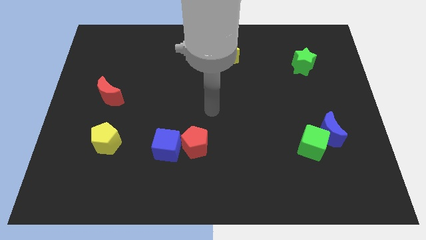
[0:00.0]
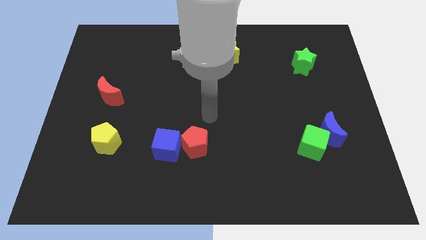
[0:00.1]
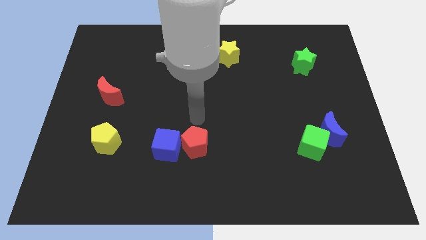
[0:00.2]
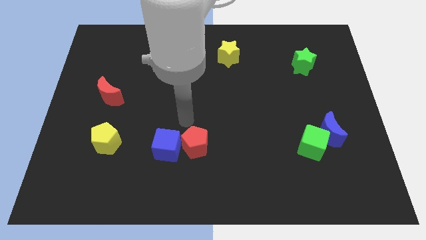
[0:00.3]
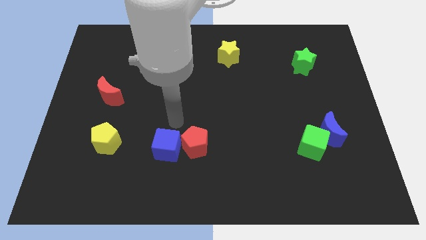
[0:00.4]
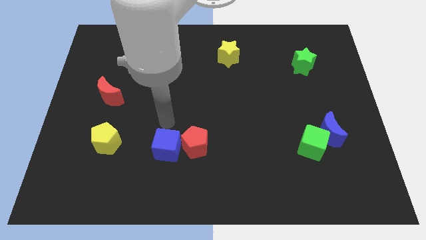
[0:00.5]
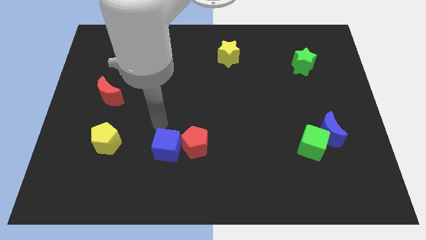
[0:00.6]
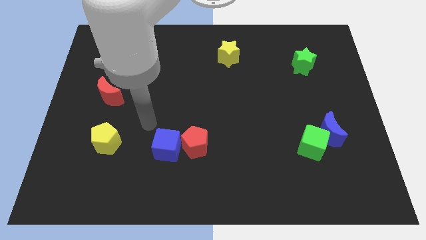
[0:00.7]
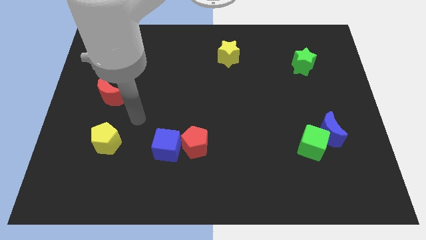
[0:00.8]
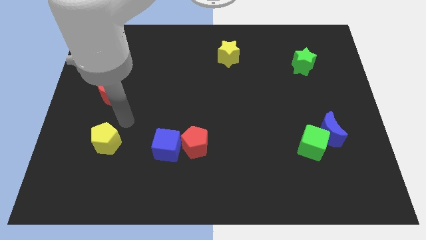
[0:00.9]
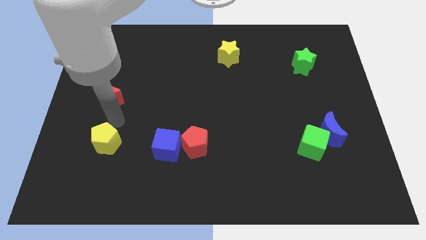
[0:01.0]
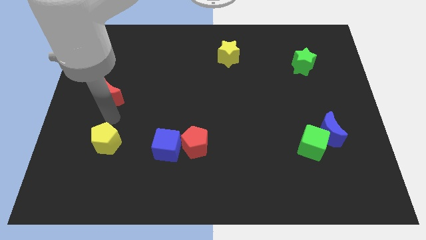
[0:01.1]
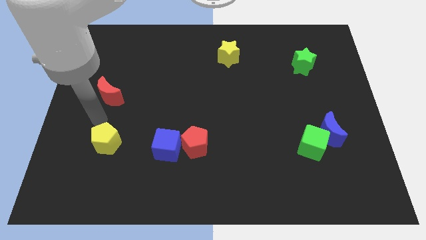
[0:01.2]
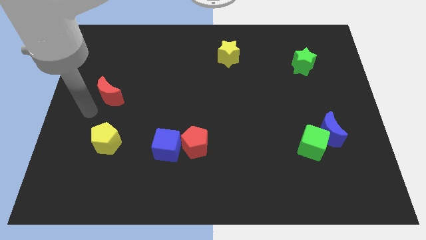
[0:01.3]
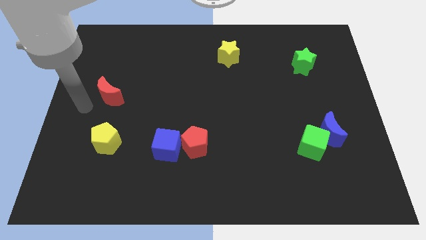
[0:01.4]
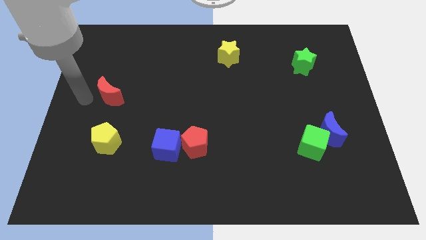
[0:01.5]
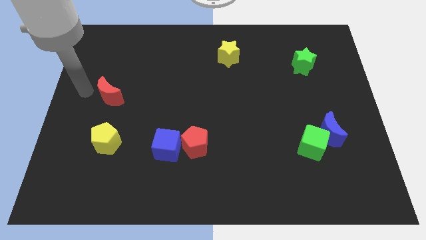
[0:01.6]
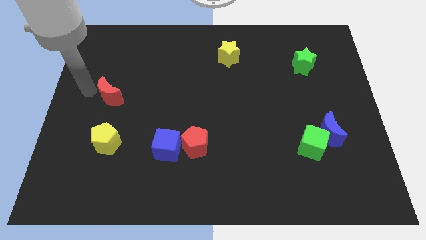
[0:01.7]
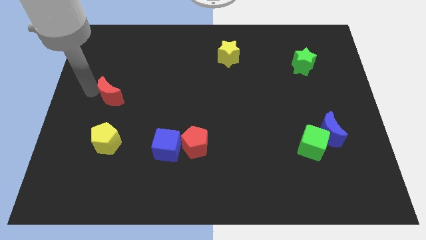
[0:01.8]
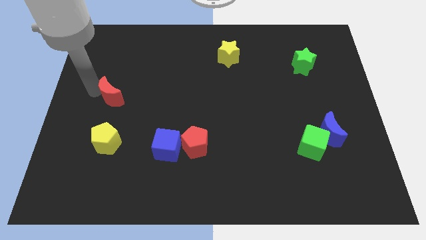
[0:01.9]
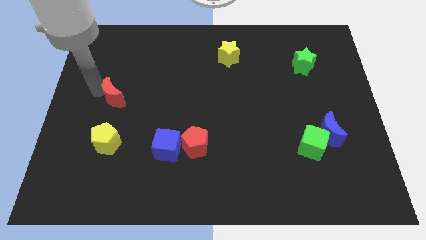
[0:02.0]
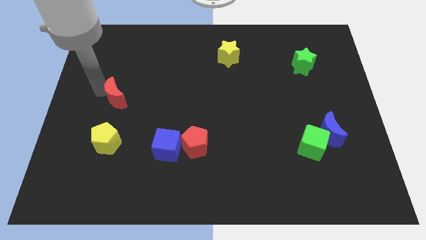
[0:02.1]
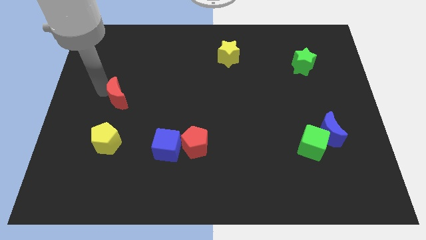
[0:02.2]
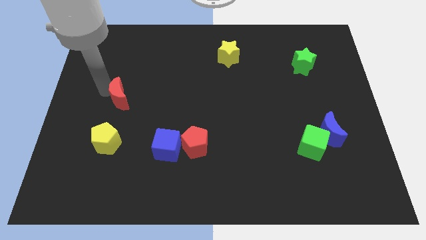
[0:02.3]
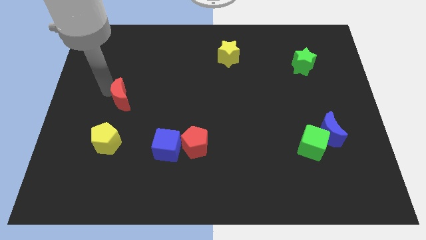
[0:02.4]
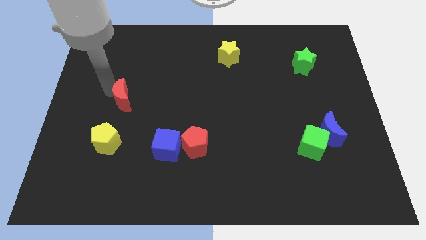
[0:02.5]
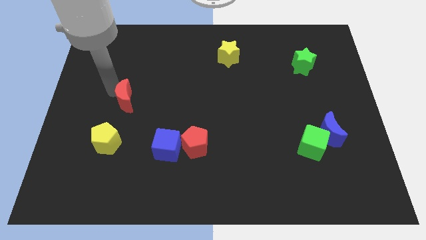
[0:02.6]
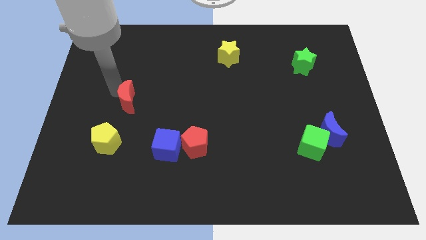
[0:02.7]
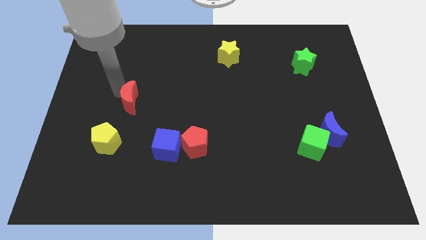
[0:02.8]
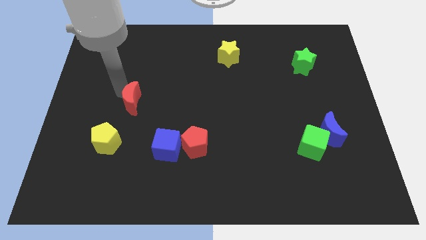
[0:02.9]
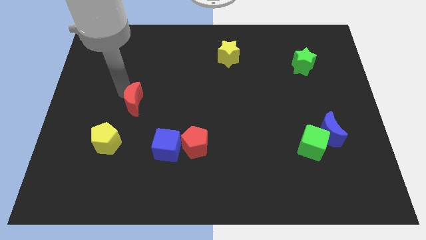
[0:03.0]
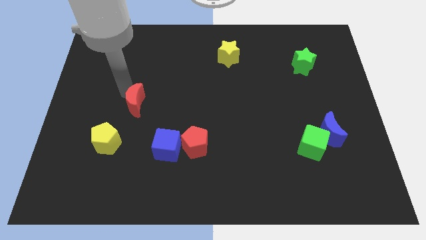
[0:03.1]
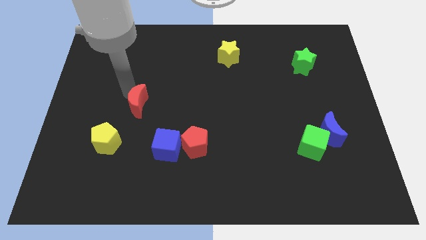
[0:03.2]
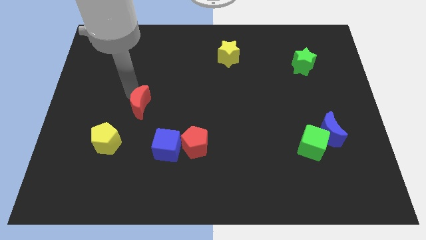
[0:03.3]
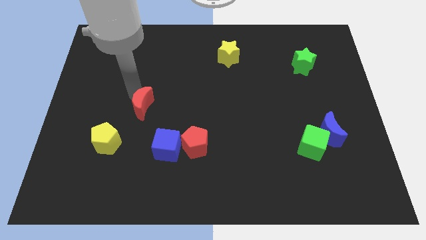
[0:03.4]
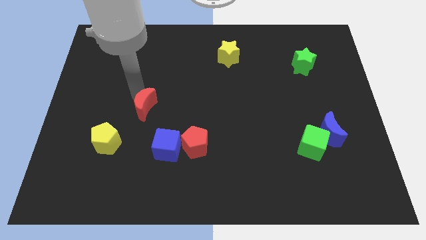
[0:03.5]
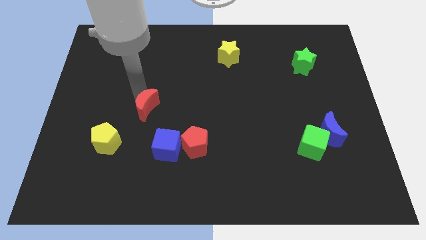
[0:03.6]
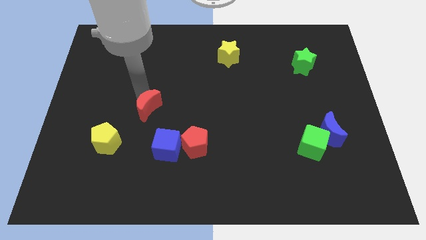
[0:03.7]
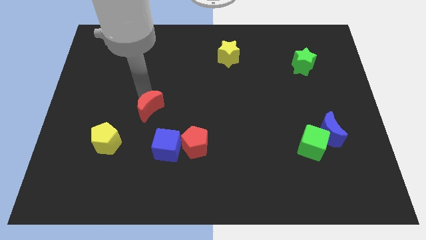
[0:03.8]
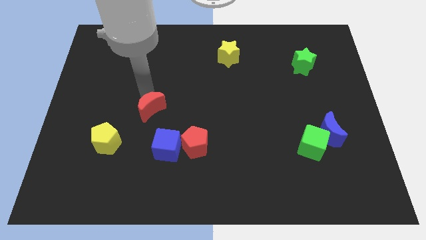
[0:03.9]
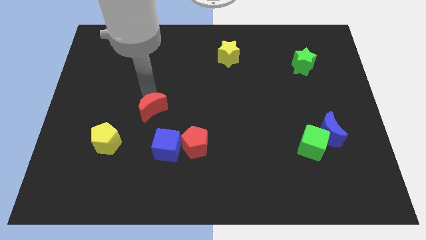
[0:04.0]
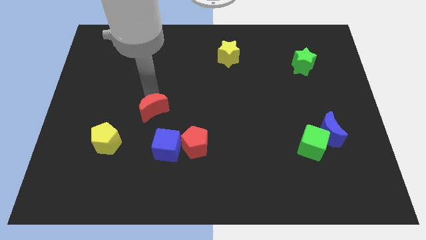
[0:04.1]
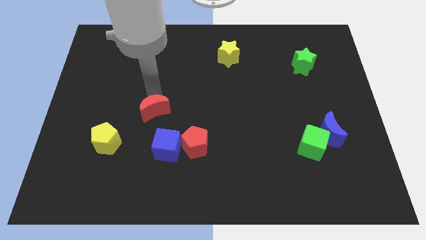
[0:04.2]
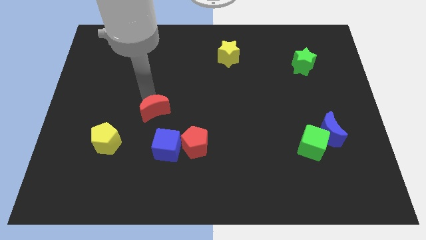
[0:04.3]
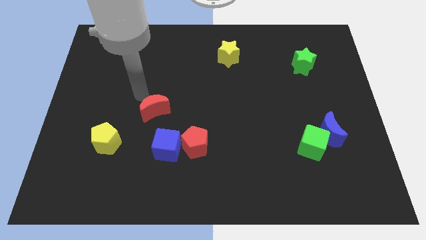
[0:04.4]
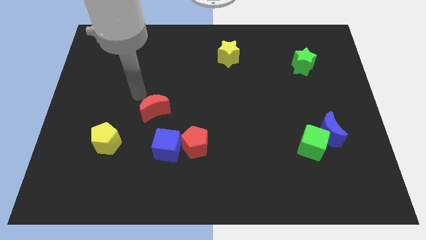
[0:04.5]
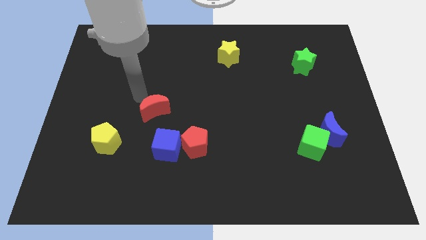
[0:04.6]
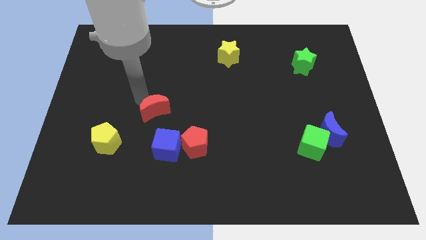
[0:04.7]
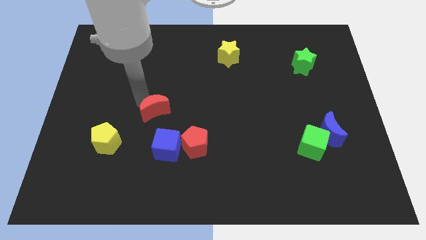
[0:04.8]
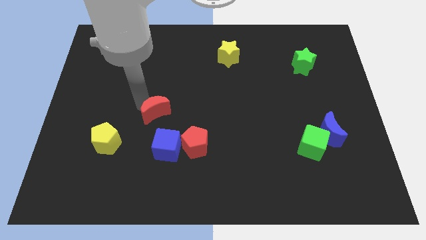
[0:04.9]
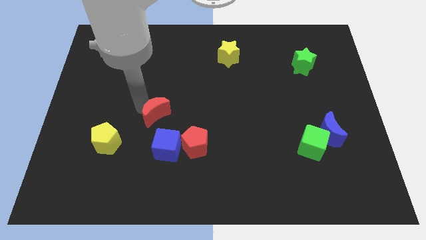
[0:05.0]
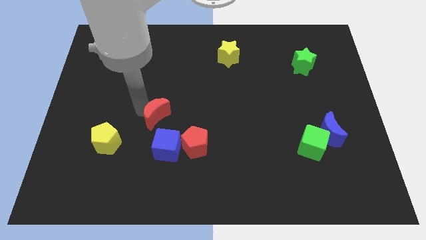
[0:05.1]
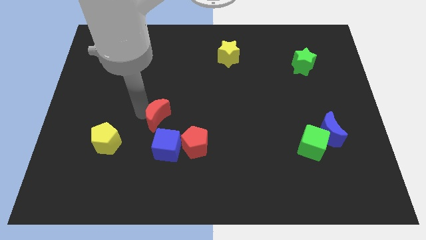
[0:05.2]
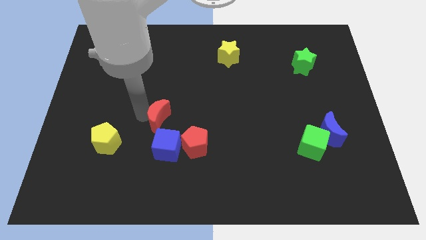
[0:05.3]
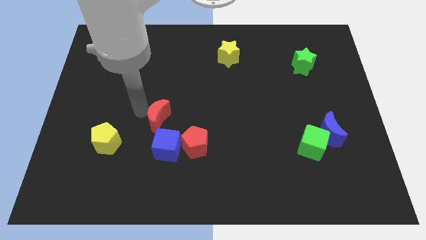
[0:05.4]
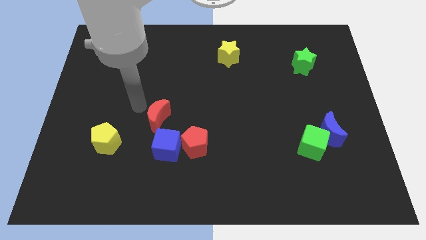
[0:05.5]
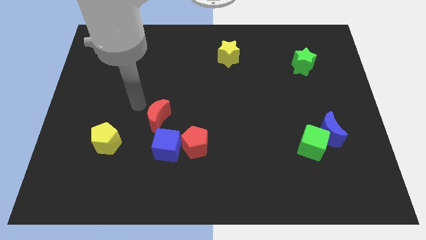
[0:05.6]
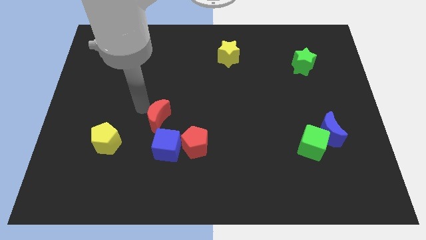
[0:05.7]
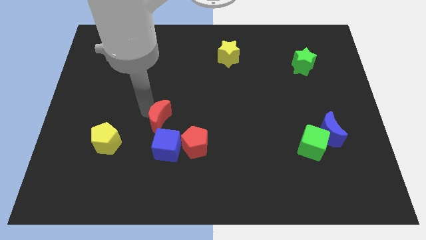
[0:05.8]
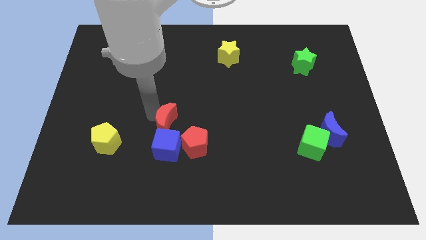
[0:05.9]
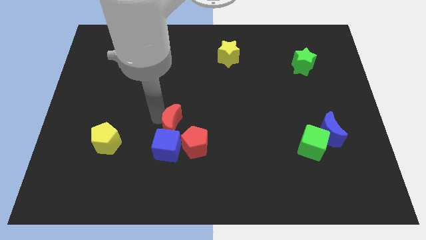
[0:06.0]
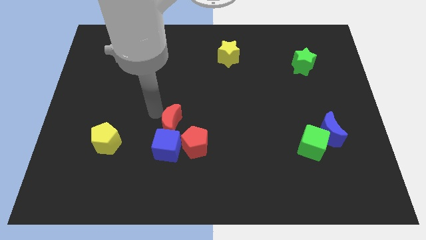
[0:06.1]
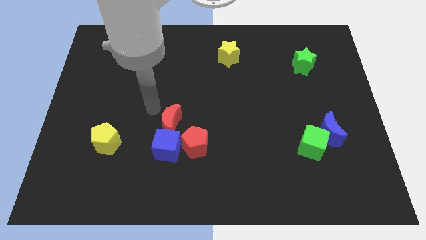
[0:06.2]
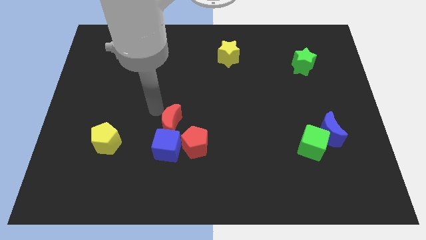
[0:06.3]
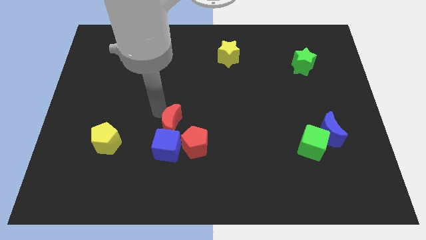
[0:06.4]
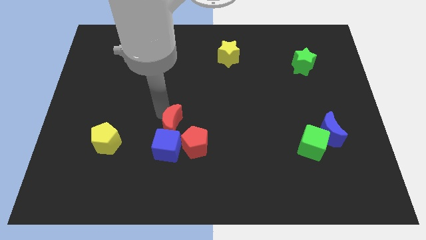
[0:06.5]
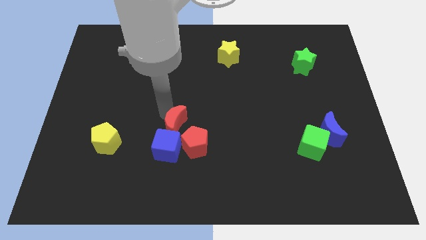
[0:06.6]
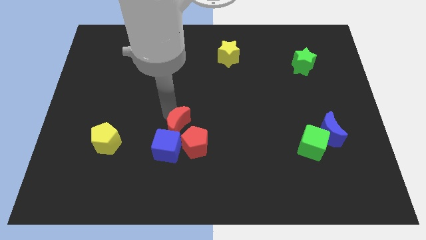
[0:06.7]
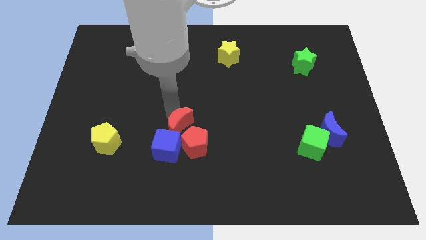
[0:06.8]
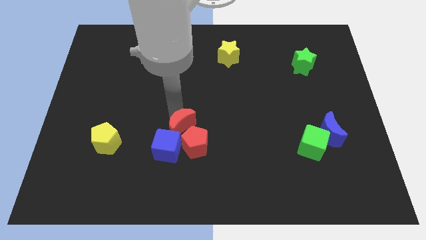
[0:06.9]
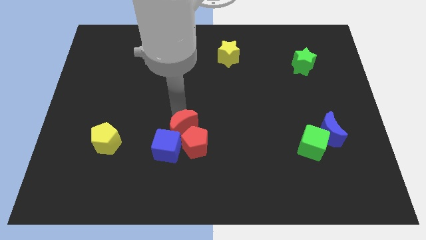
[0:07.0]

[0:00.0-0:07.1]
slide the red moon towards the red pentagon

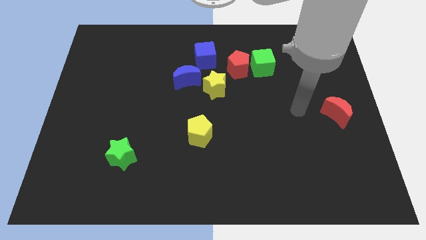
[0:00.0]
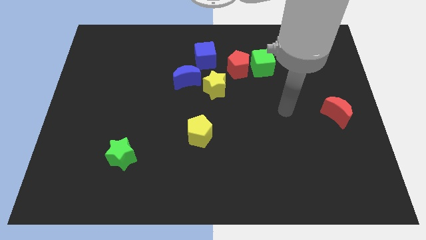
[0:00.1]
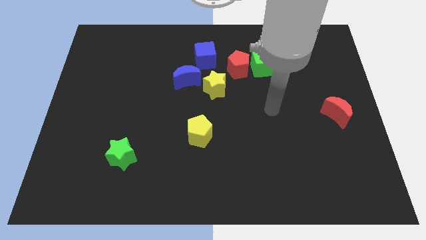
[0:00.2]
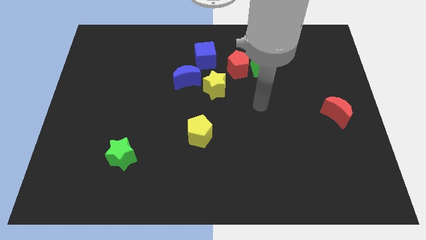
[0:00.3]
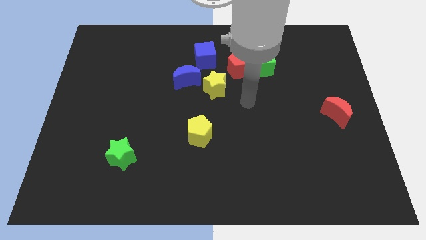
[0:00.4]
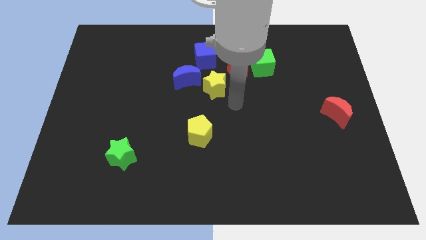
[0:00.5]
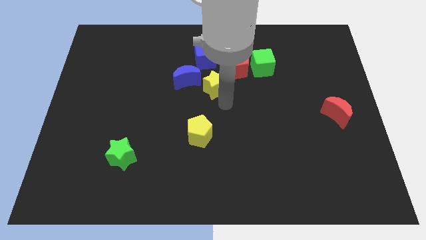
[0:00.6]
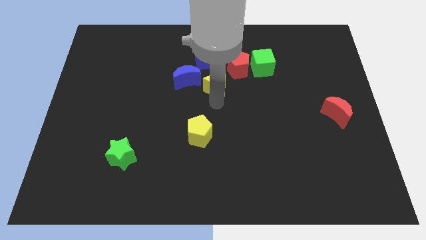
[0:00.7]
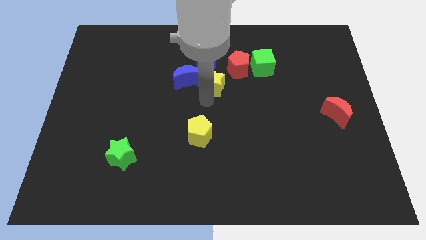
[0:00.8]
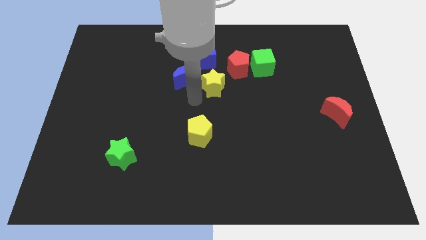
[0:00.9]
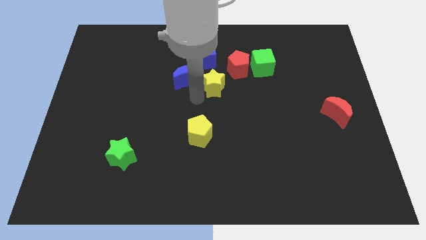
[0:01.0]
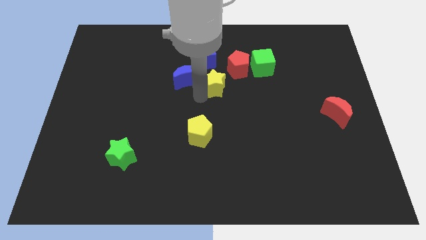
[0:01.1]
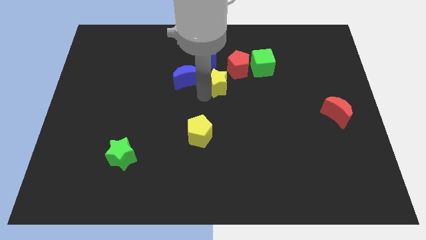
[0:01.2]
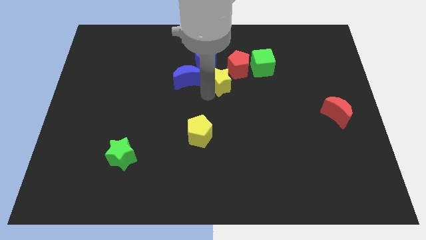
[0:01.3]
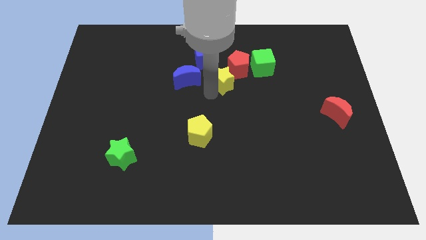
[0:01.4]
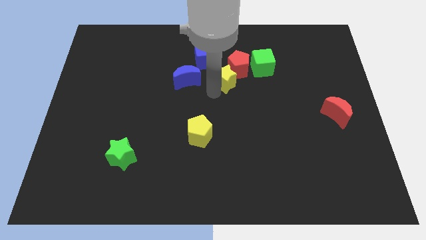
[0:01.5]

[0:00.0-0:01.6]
push the yellow star to the red pentagon
